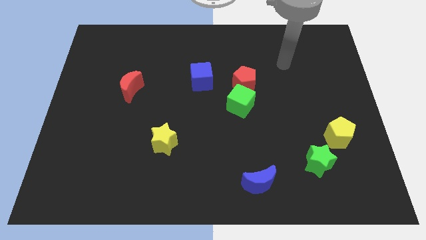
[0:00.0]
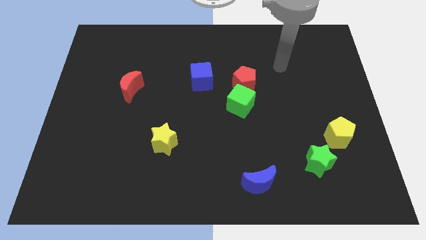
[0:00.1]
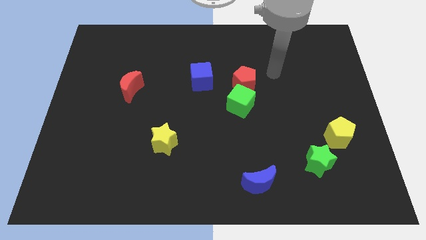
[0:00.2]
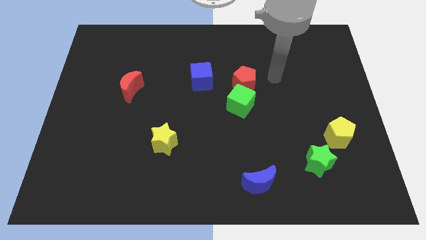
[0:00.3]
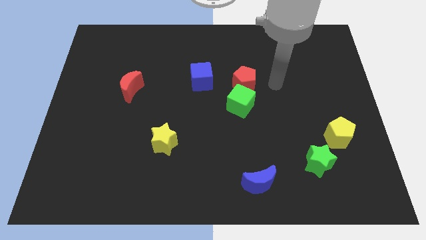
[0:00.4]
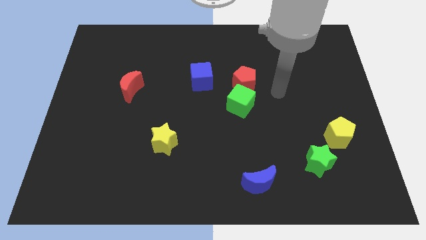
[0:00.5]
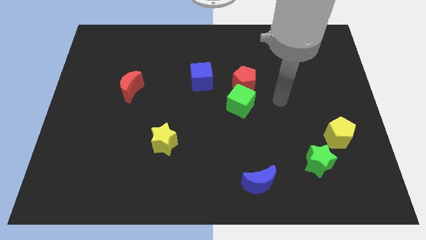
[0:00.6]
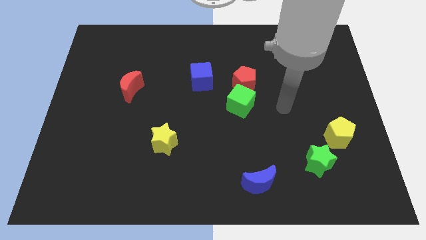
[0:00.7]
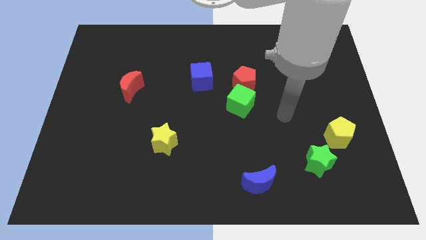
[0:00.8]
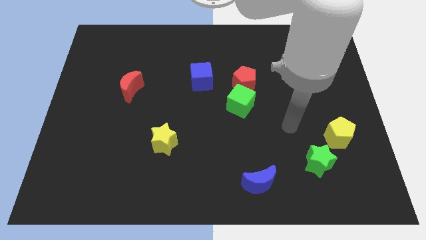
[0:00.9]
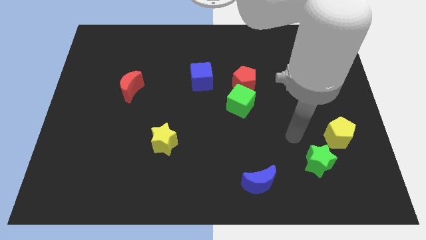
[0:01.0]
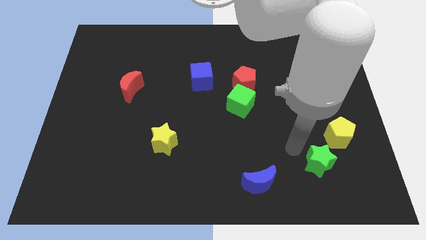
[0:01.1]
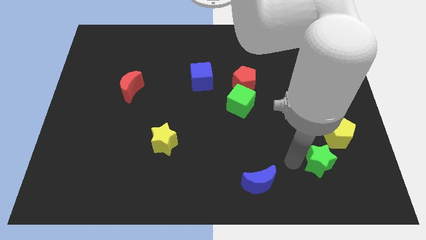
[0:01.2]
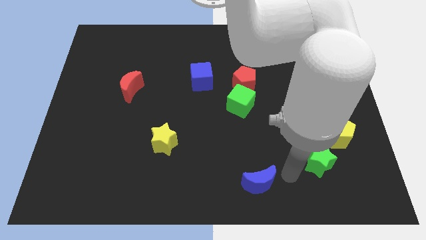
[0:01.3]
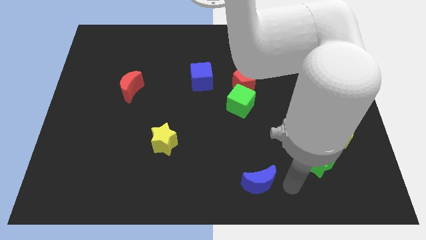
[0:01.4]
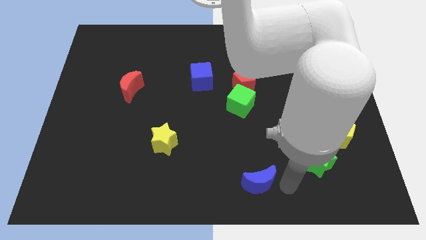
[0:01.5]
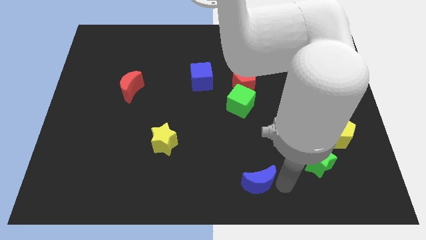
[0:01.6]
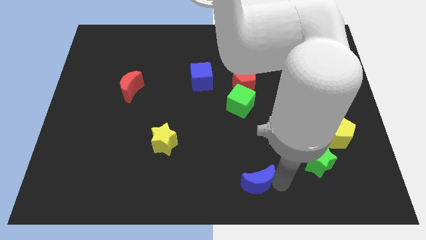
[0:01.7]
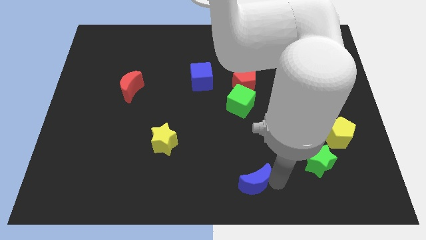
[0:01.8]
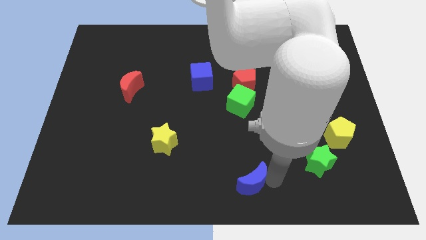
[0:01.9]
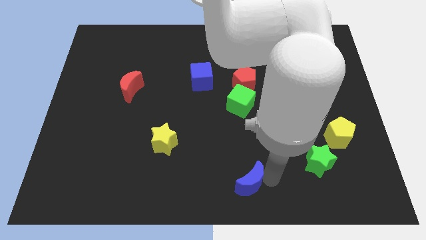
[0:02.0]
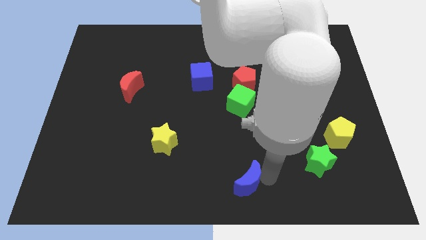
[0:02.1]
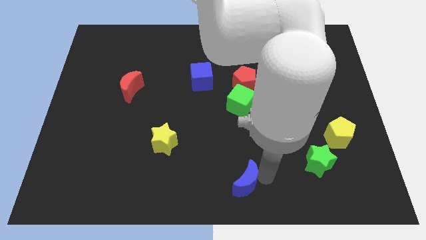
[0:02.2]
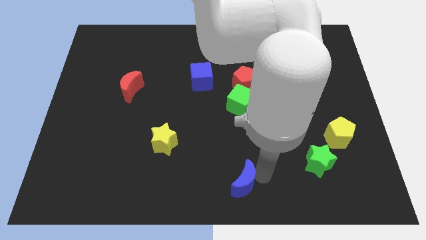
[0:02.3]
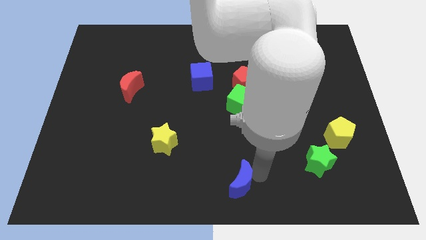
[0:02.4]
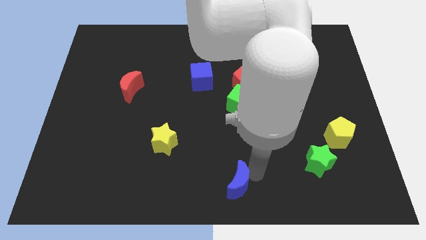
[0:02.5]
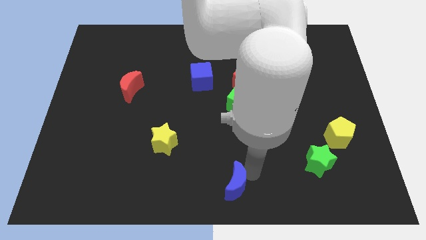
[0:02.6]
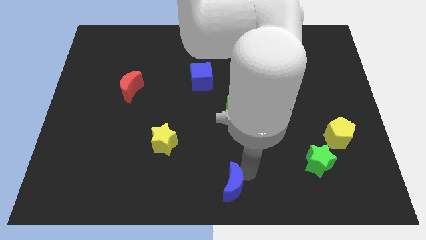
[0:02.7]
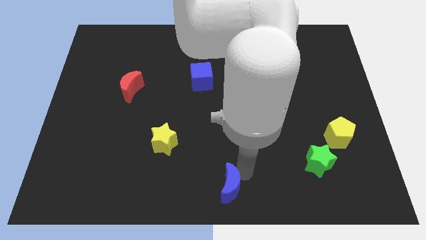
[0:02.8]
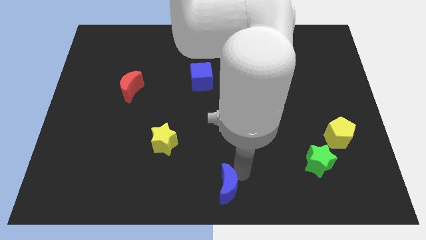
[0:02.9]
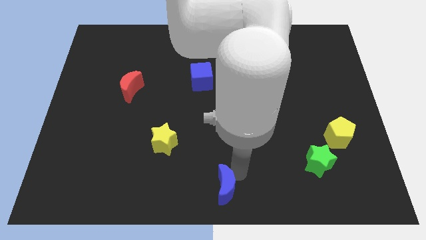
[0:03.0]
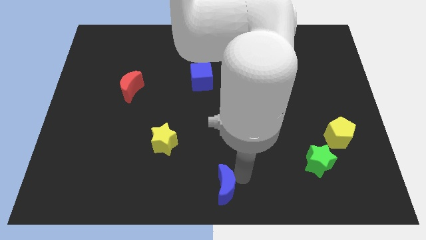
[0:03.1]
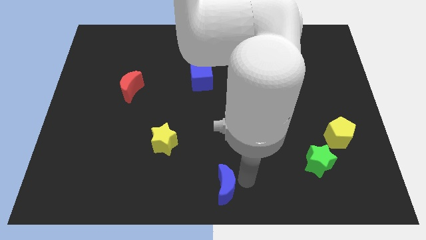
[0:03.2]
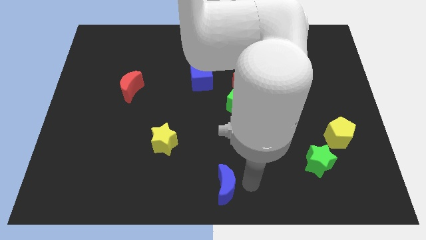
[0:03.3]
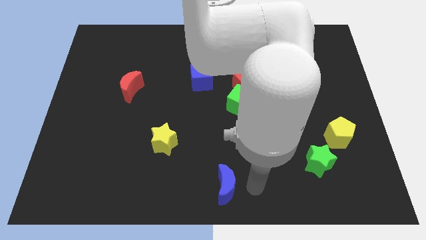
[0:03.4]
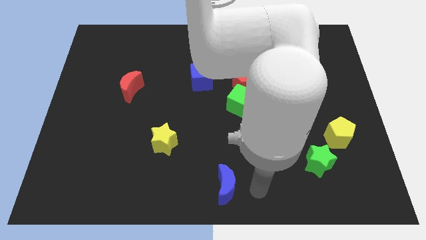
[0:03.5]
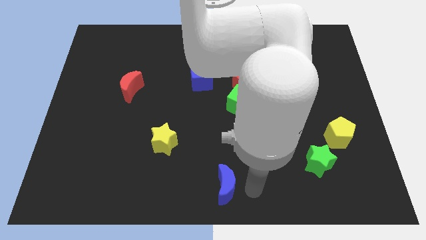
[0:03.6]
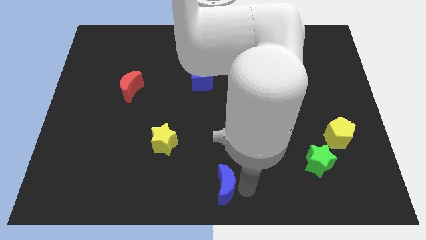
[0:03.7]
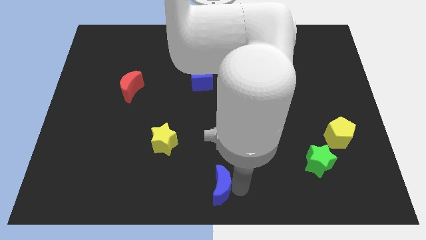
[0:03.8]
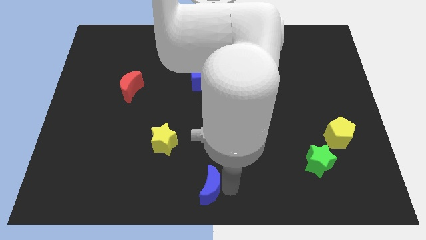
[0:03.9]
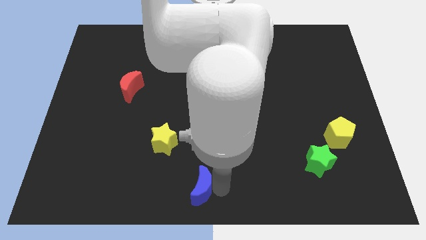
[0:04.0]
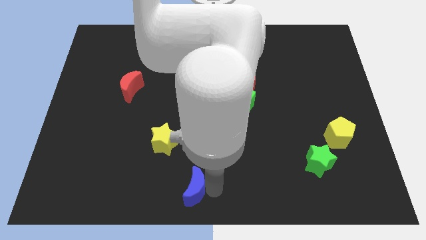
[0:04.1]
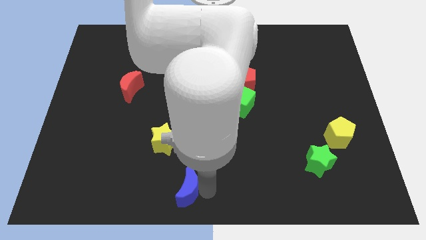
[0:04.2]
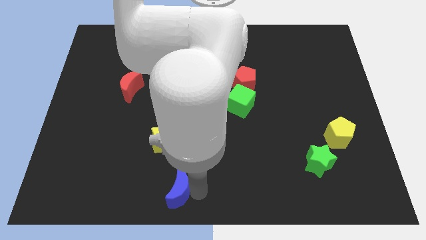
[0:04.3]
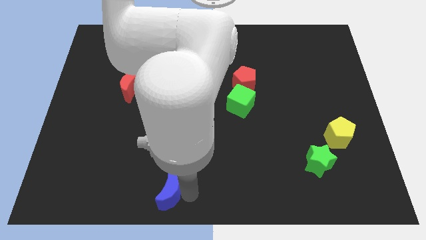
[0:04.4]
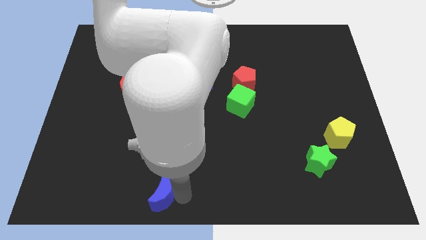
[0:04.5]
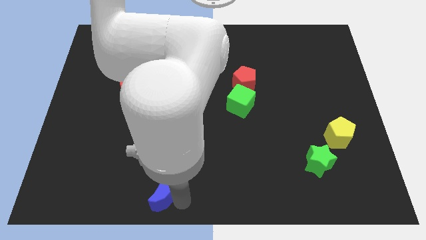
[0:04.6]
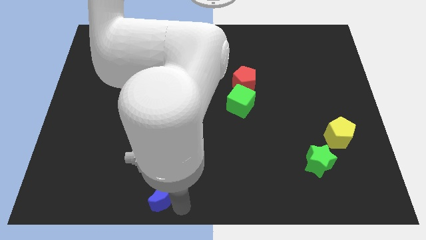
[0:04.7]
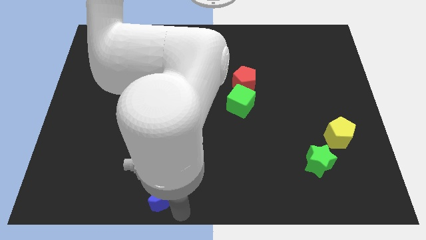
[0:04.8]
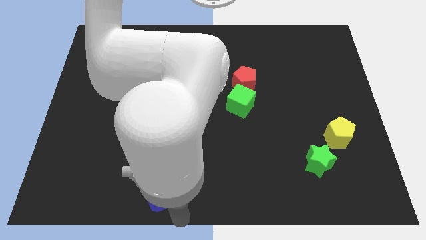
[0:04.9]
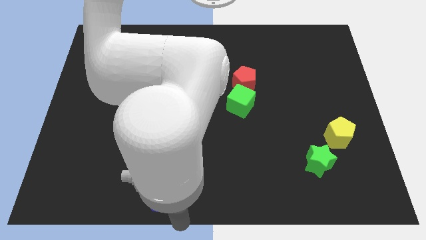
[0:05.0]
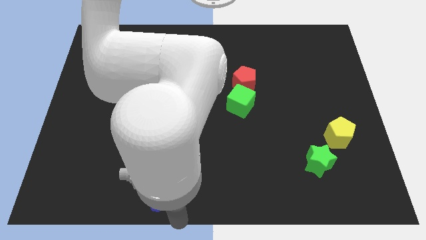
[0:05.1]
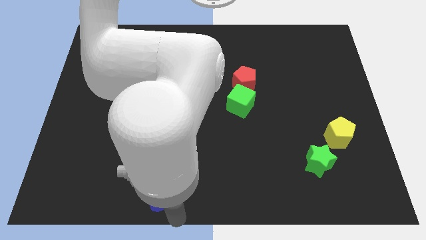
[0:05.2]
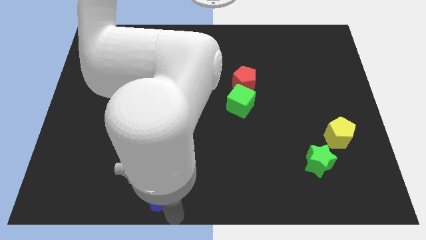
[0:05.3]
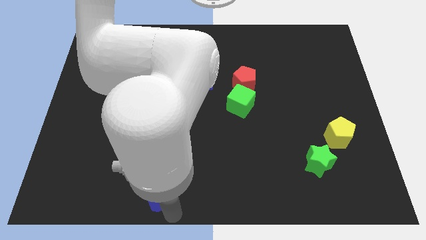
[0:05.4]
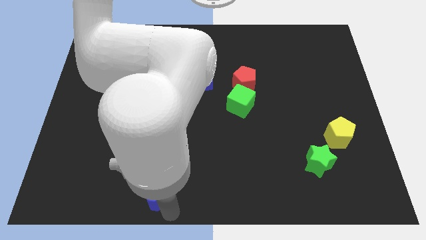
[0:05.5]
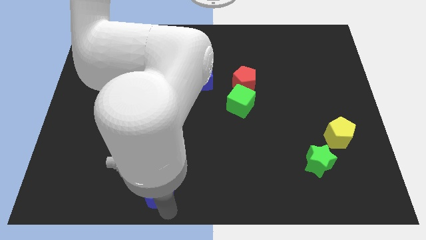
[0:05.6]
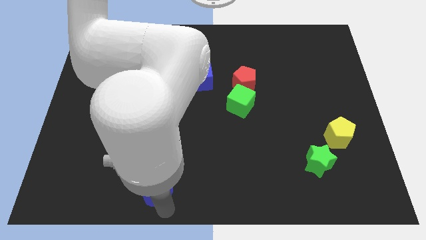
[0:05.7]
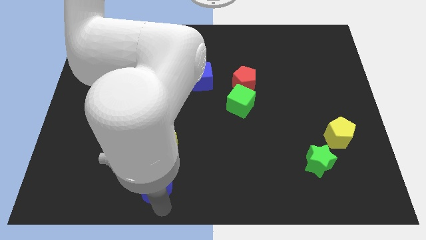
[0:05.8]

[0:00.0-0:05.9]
push the blue moon to the left

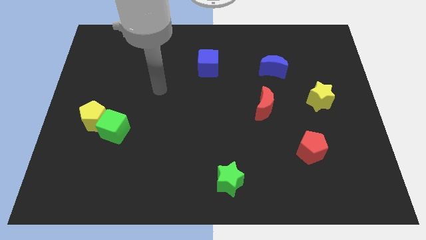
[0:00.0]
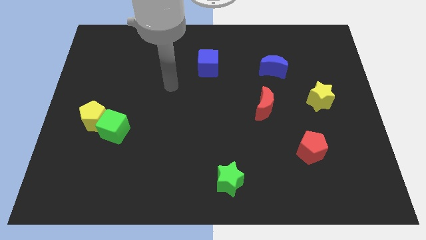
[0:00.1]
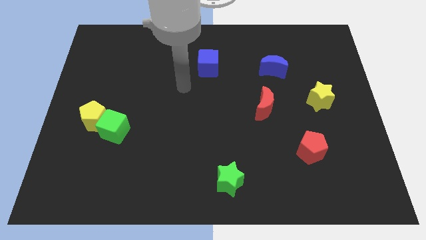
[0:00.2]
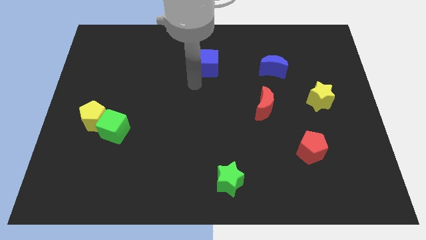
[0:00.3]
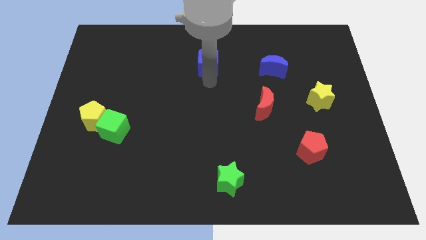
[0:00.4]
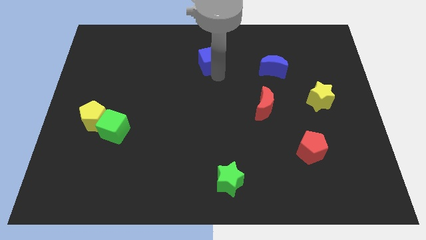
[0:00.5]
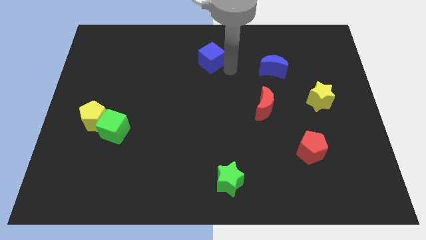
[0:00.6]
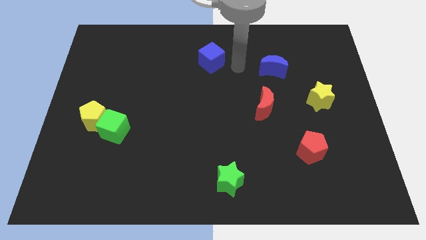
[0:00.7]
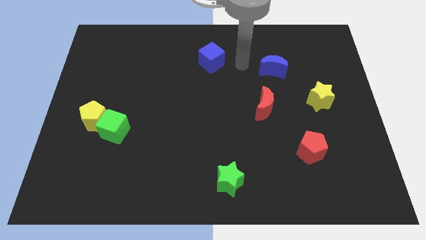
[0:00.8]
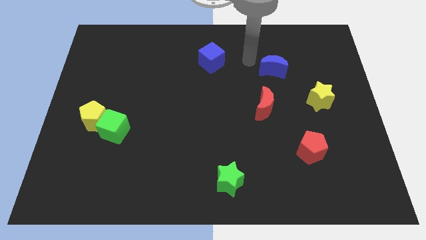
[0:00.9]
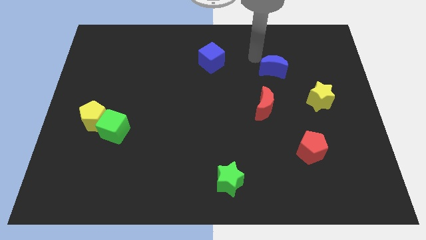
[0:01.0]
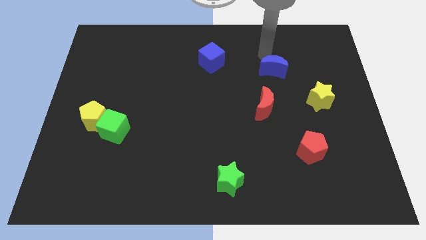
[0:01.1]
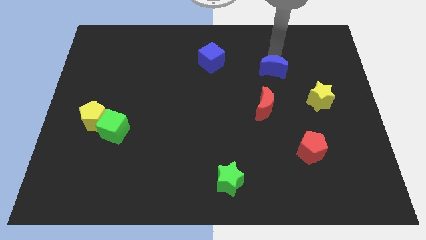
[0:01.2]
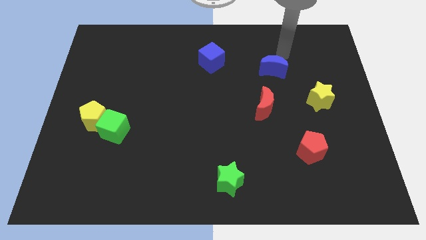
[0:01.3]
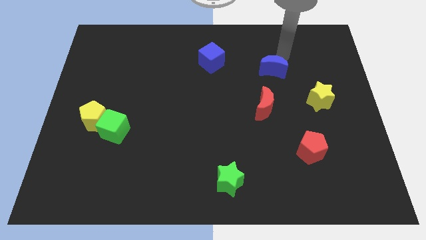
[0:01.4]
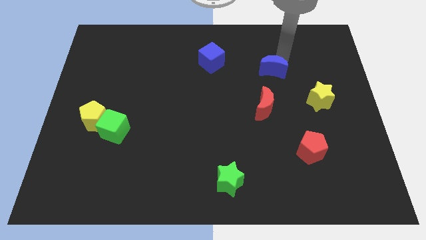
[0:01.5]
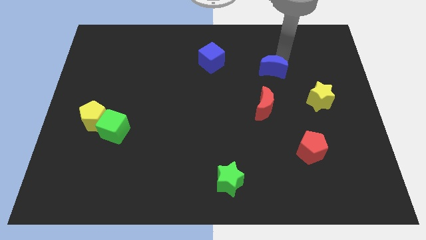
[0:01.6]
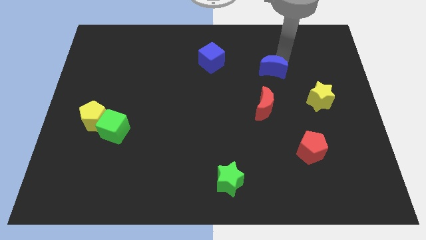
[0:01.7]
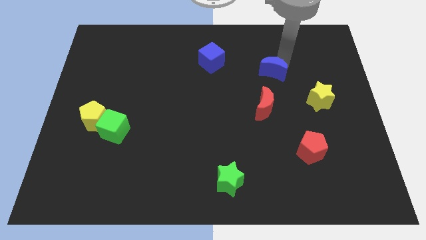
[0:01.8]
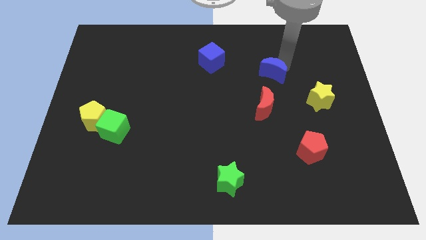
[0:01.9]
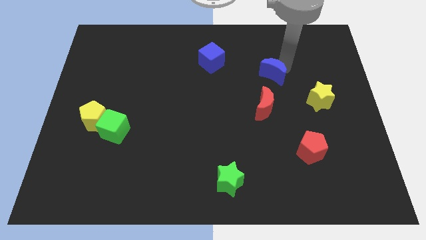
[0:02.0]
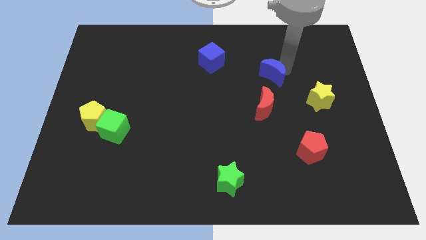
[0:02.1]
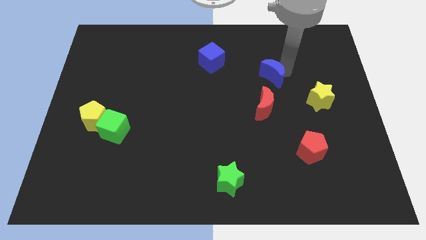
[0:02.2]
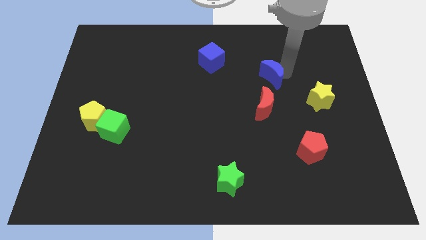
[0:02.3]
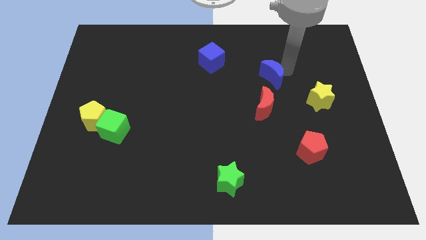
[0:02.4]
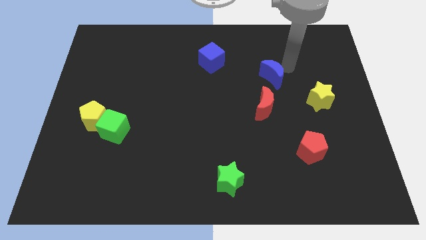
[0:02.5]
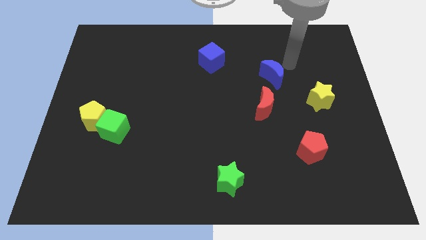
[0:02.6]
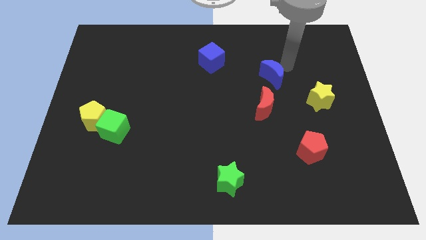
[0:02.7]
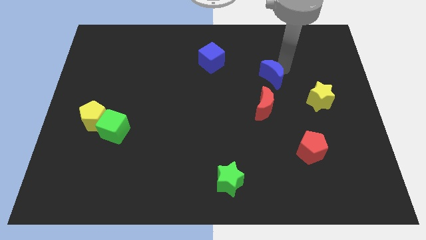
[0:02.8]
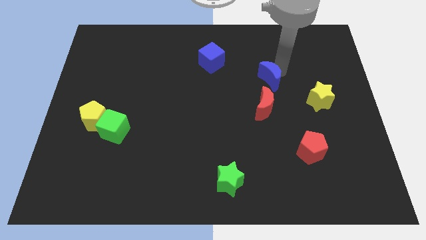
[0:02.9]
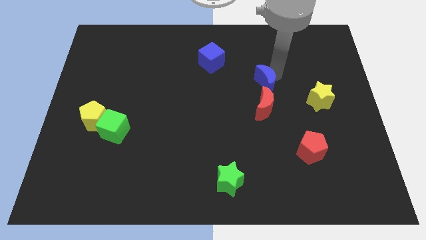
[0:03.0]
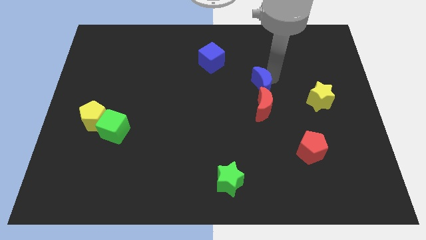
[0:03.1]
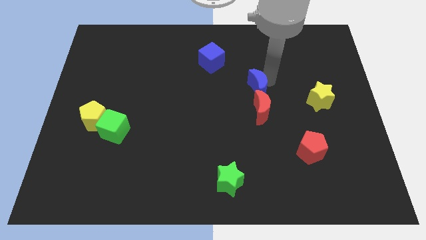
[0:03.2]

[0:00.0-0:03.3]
move the blue moon a little bit downwards and left diagonally
